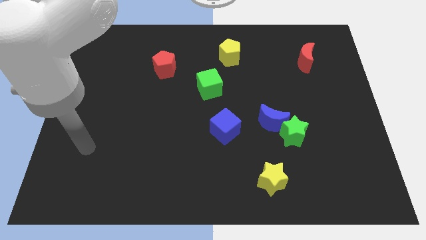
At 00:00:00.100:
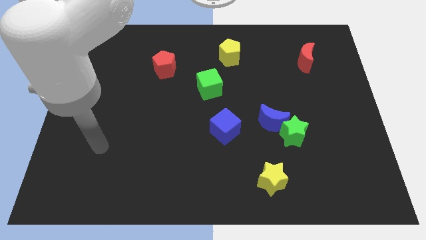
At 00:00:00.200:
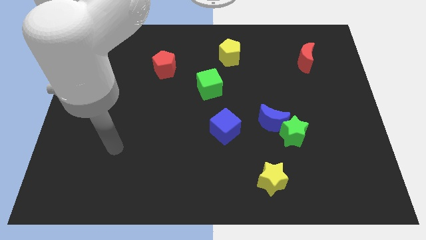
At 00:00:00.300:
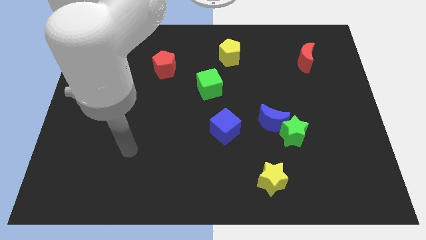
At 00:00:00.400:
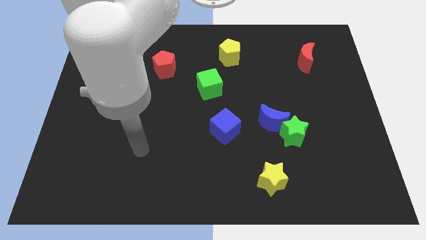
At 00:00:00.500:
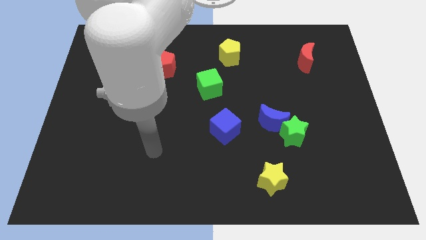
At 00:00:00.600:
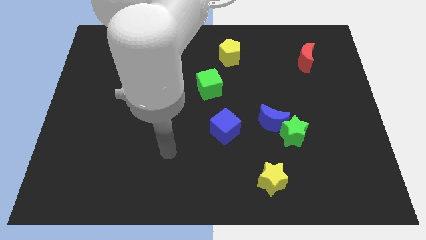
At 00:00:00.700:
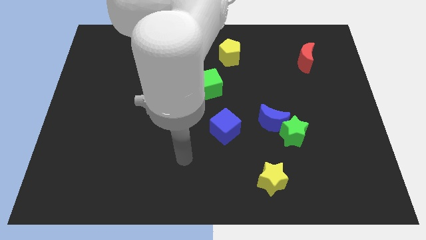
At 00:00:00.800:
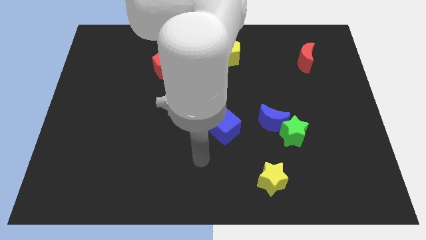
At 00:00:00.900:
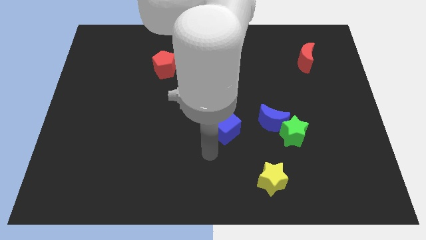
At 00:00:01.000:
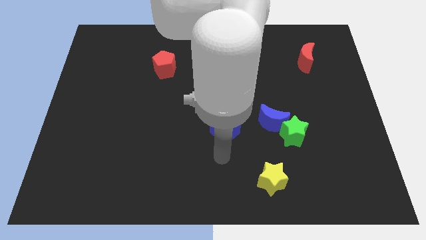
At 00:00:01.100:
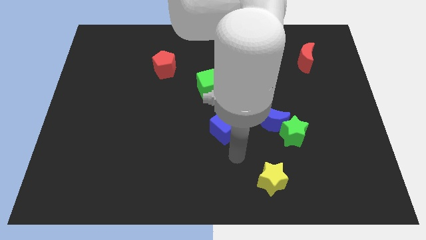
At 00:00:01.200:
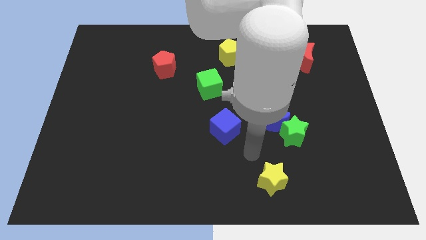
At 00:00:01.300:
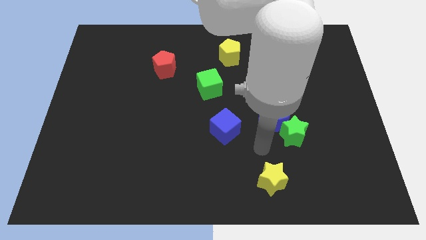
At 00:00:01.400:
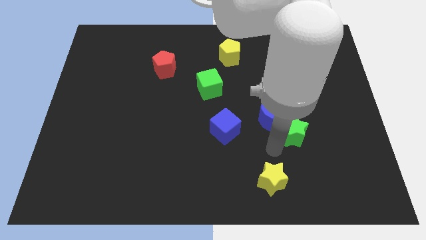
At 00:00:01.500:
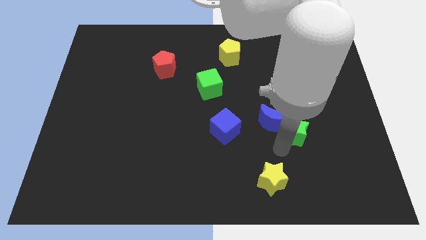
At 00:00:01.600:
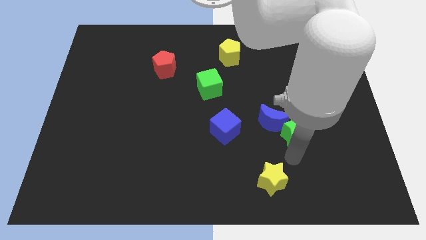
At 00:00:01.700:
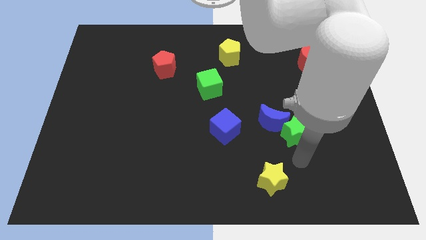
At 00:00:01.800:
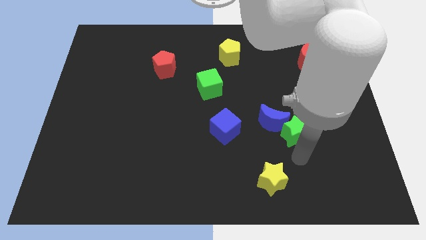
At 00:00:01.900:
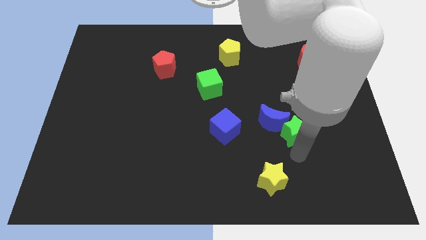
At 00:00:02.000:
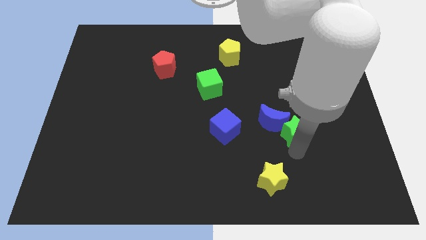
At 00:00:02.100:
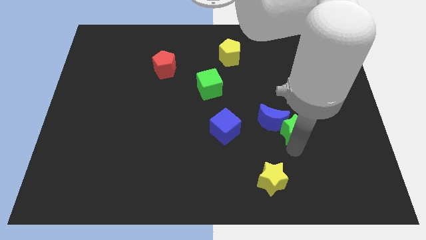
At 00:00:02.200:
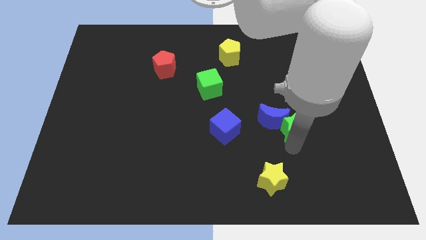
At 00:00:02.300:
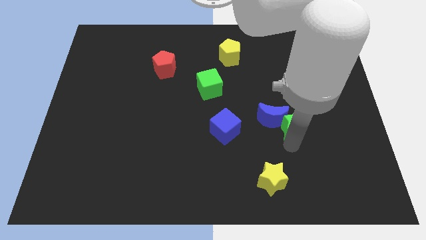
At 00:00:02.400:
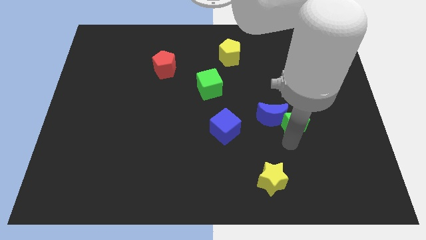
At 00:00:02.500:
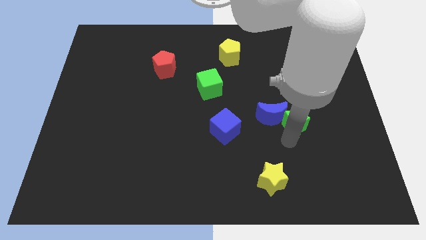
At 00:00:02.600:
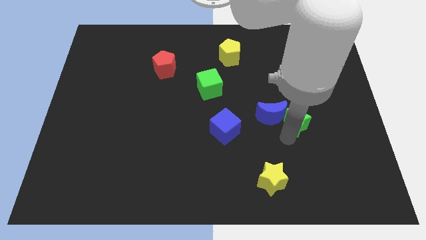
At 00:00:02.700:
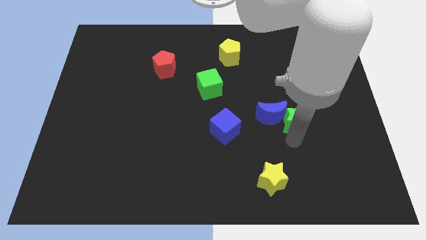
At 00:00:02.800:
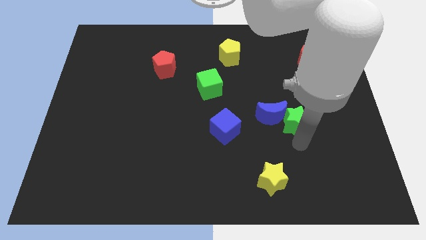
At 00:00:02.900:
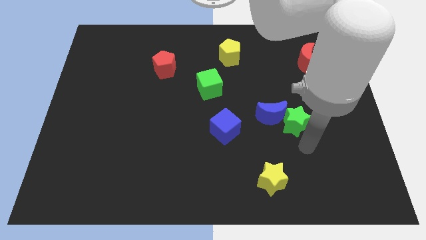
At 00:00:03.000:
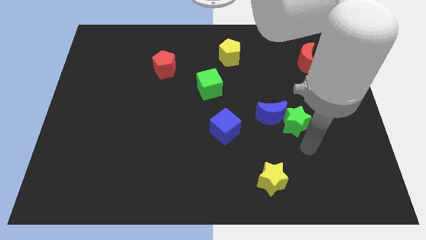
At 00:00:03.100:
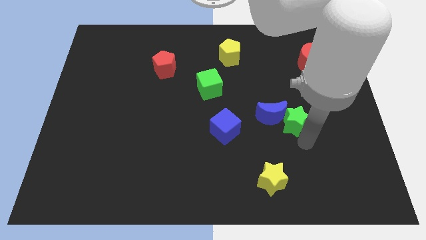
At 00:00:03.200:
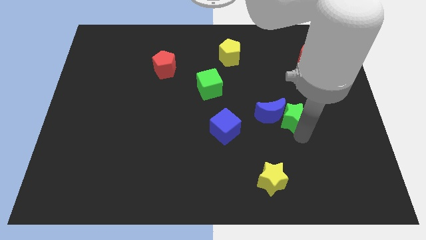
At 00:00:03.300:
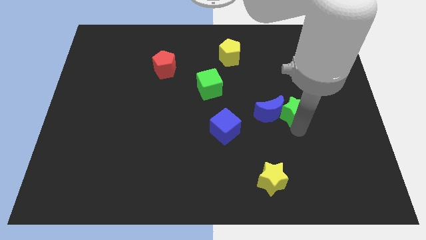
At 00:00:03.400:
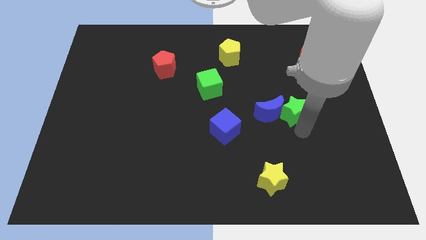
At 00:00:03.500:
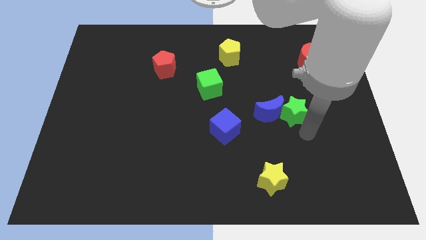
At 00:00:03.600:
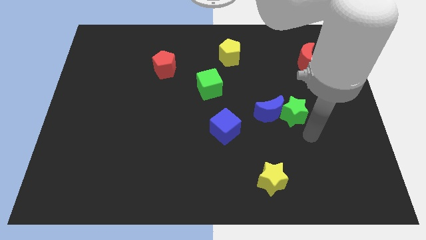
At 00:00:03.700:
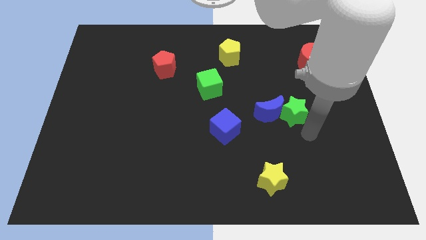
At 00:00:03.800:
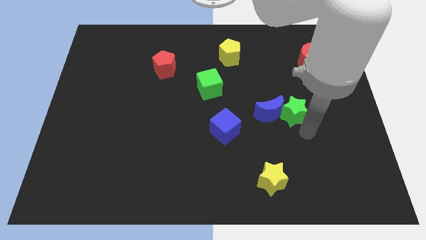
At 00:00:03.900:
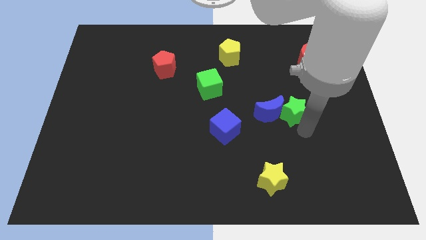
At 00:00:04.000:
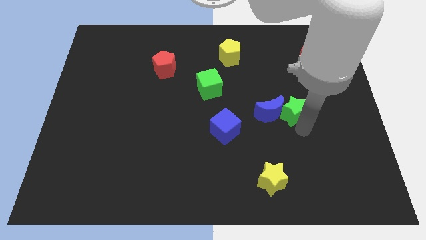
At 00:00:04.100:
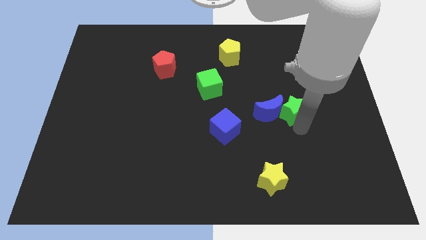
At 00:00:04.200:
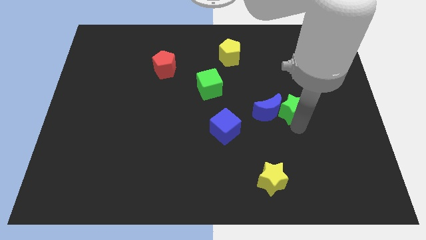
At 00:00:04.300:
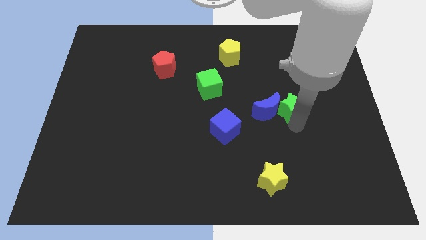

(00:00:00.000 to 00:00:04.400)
move the green star a little bit upwards

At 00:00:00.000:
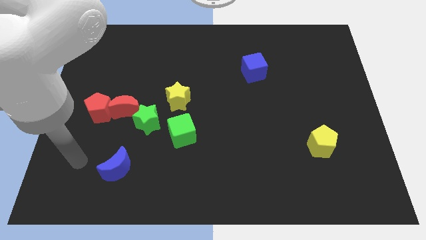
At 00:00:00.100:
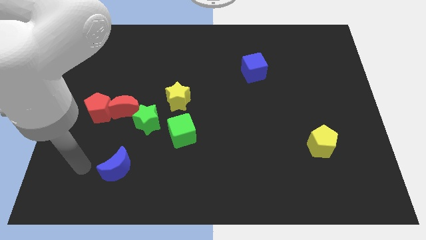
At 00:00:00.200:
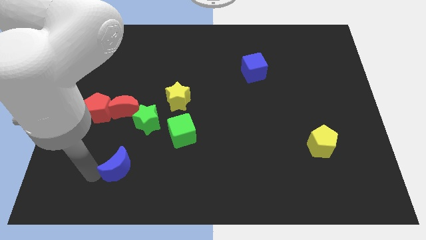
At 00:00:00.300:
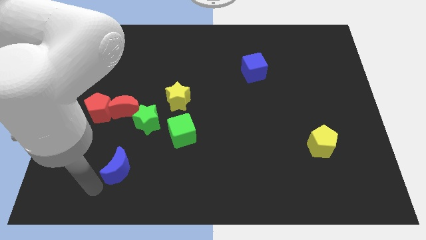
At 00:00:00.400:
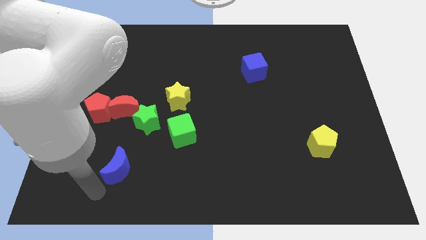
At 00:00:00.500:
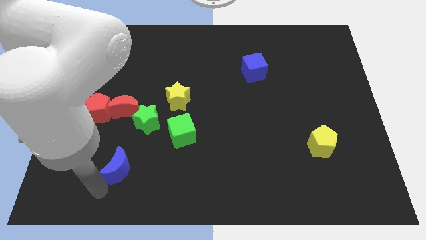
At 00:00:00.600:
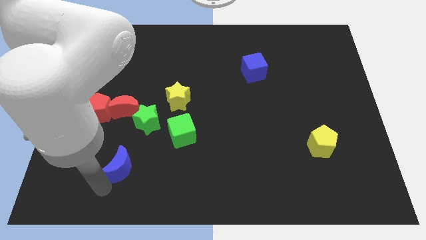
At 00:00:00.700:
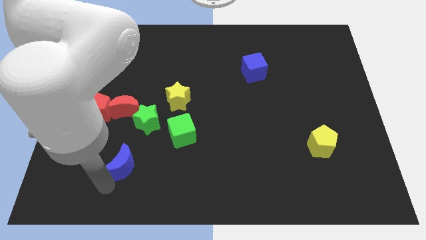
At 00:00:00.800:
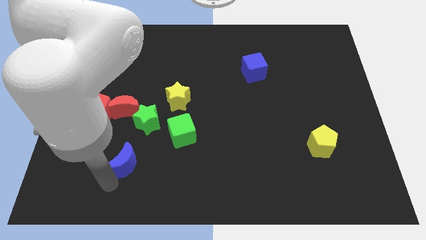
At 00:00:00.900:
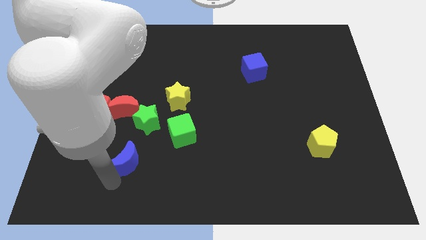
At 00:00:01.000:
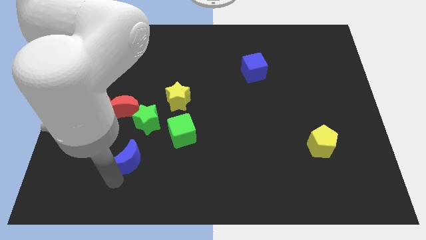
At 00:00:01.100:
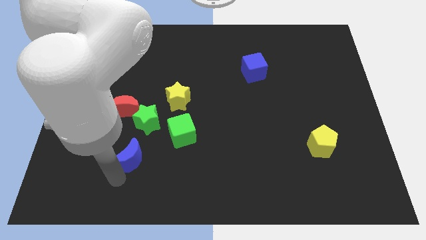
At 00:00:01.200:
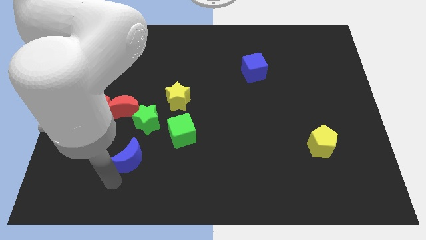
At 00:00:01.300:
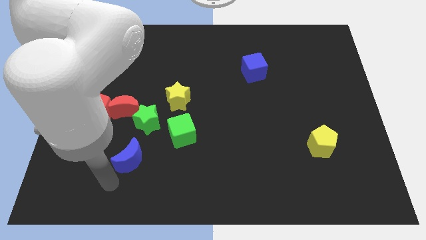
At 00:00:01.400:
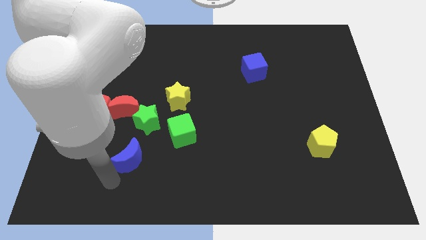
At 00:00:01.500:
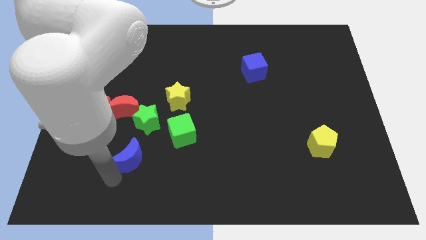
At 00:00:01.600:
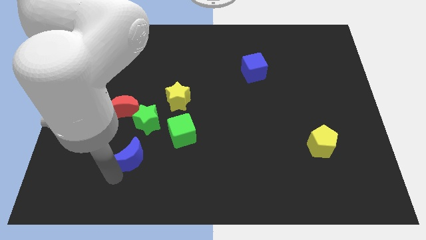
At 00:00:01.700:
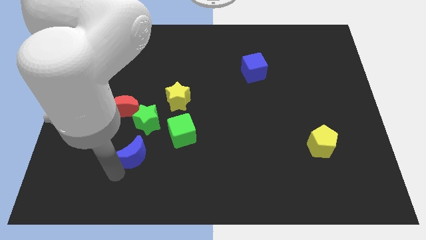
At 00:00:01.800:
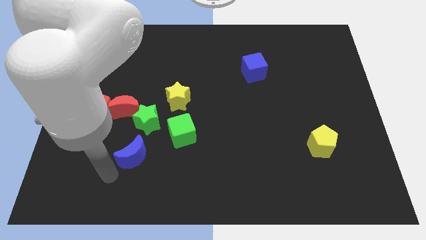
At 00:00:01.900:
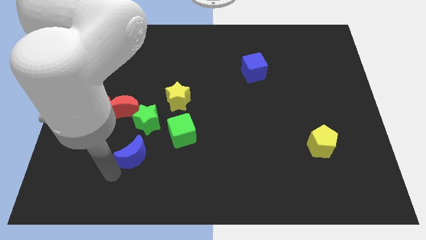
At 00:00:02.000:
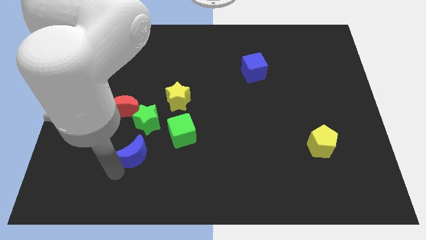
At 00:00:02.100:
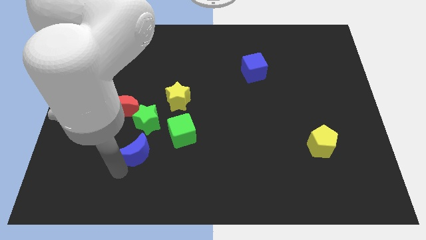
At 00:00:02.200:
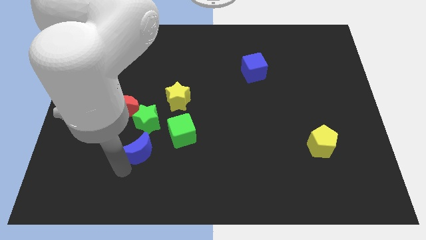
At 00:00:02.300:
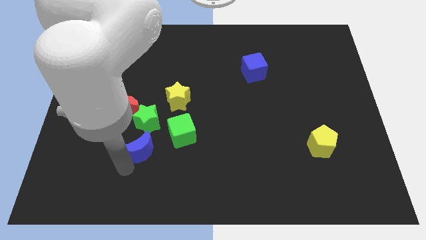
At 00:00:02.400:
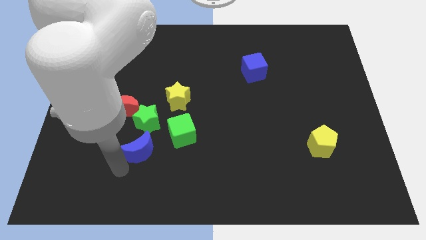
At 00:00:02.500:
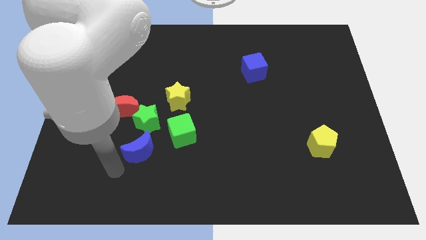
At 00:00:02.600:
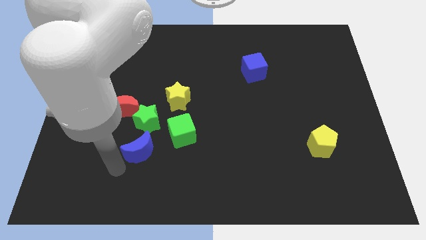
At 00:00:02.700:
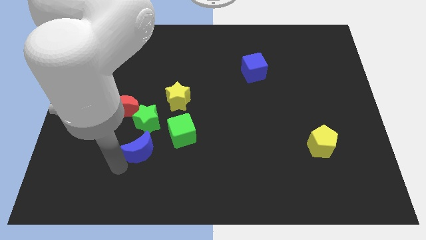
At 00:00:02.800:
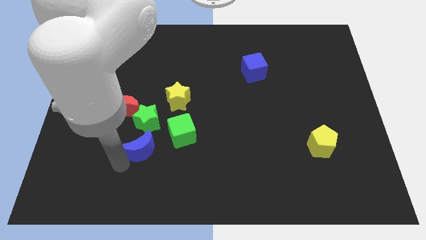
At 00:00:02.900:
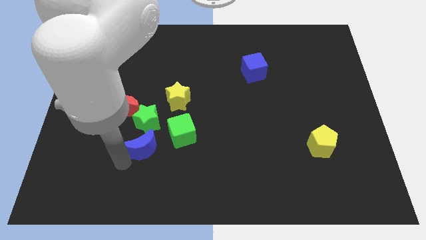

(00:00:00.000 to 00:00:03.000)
push the blue moon somewhat up and right
